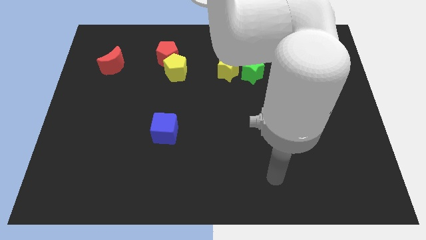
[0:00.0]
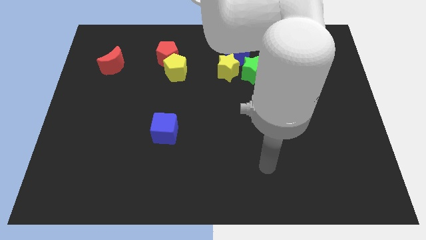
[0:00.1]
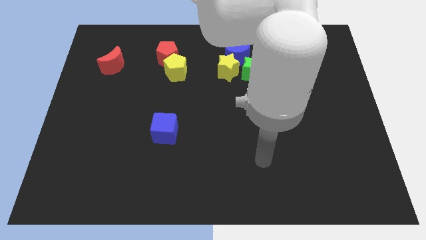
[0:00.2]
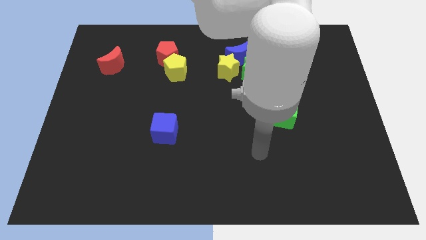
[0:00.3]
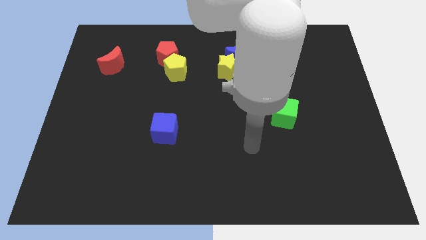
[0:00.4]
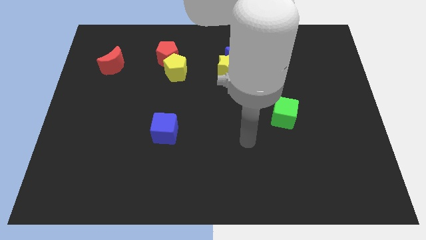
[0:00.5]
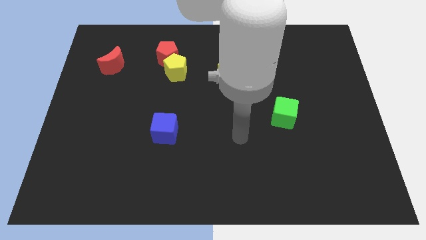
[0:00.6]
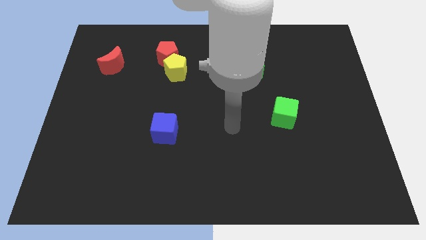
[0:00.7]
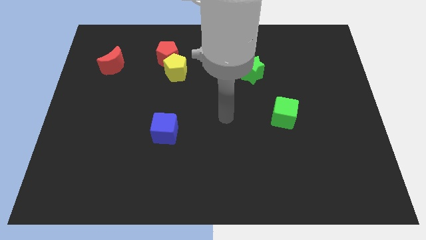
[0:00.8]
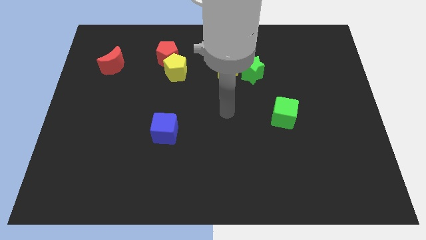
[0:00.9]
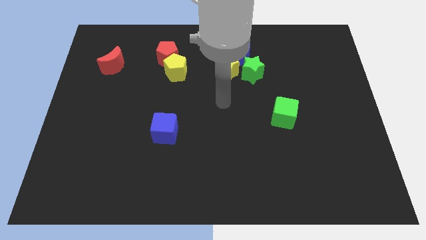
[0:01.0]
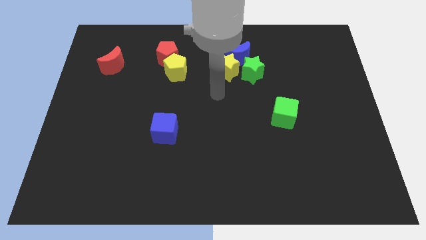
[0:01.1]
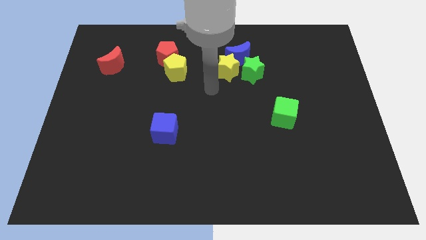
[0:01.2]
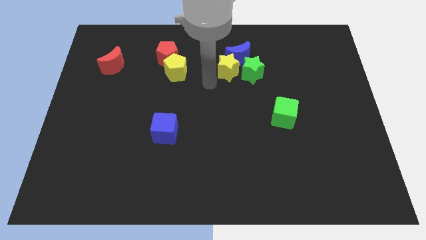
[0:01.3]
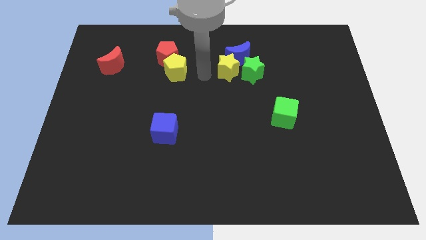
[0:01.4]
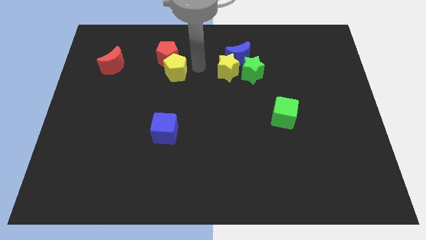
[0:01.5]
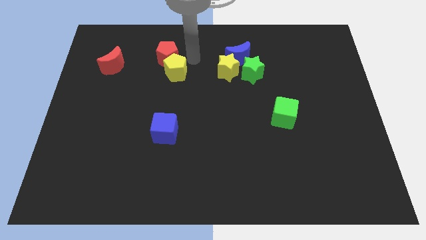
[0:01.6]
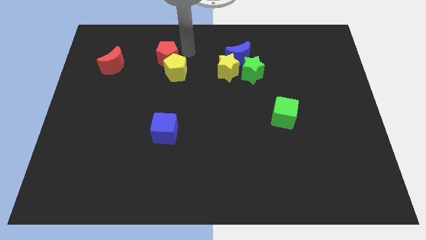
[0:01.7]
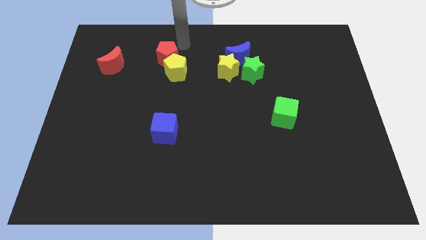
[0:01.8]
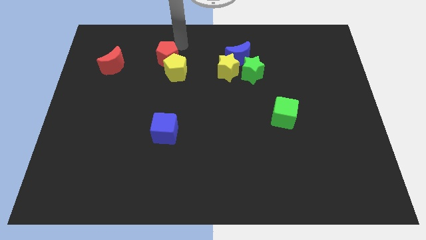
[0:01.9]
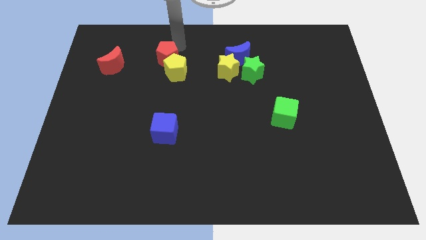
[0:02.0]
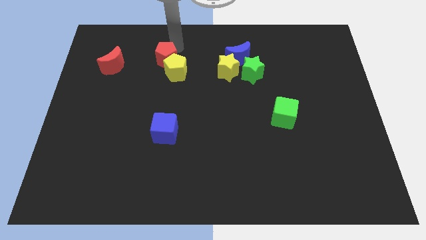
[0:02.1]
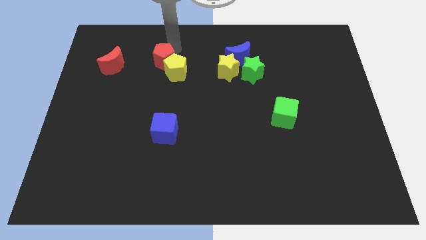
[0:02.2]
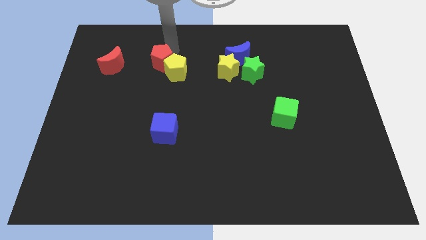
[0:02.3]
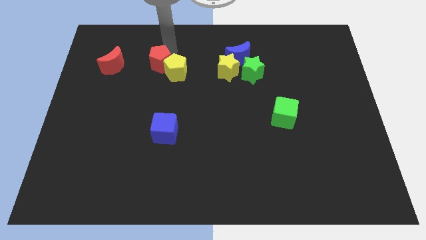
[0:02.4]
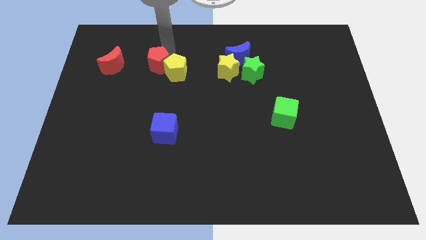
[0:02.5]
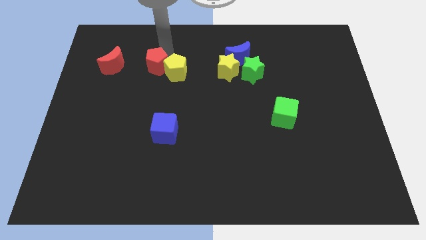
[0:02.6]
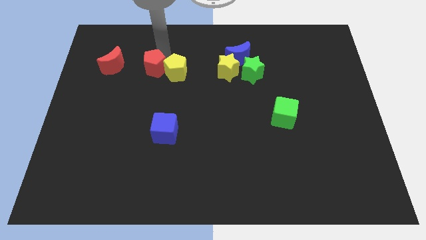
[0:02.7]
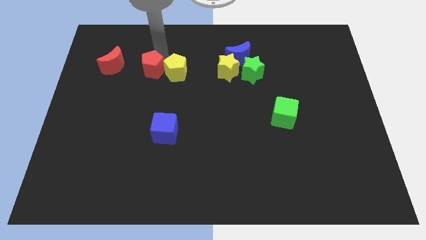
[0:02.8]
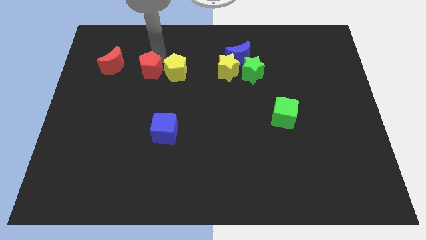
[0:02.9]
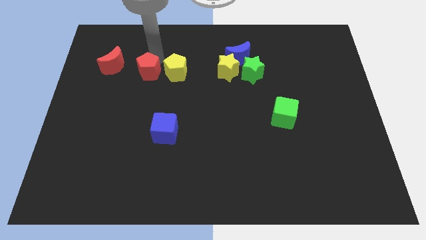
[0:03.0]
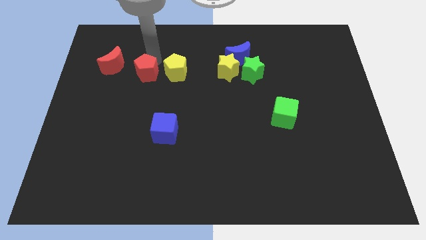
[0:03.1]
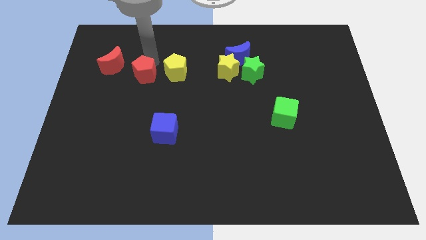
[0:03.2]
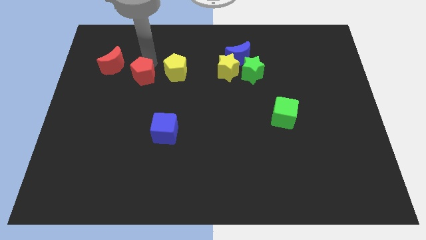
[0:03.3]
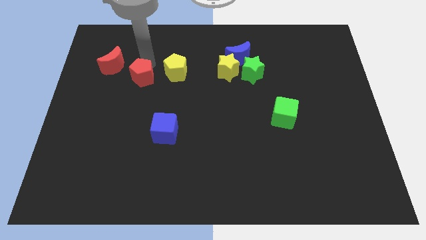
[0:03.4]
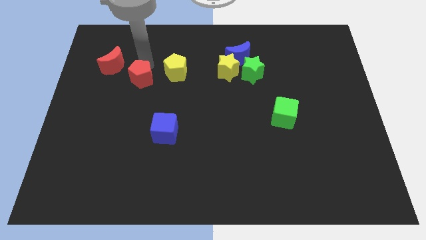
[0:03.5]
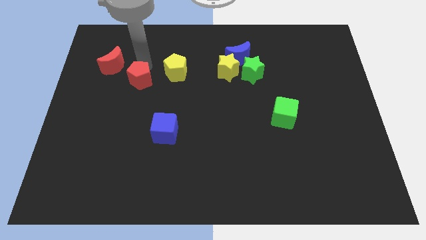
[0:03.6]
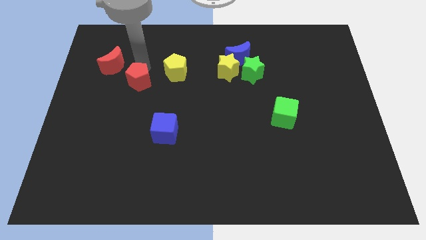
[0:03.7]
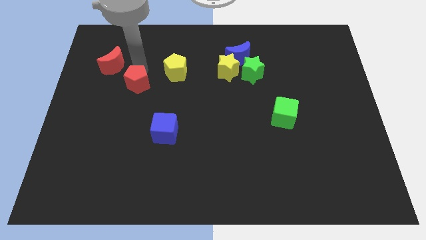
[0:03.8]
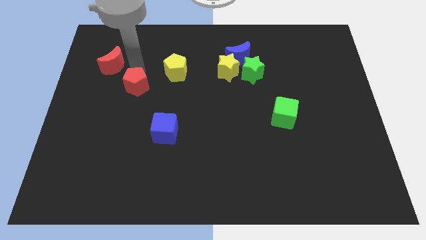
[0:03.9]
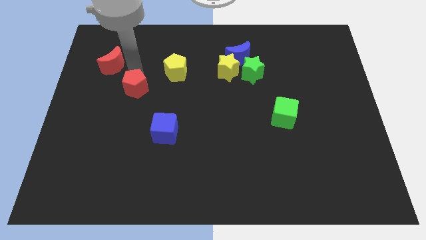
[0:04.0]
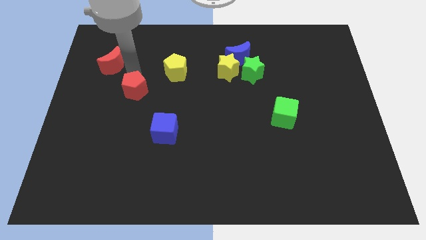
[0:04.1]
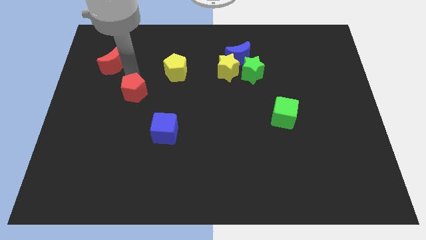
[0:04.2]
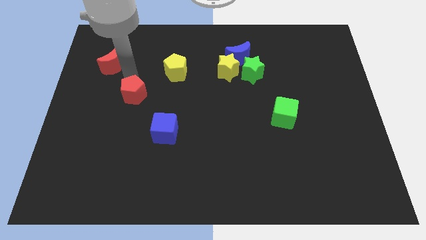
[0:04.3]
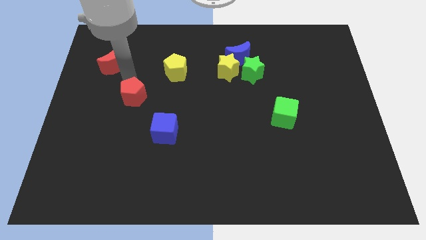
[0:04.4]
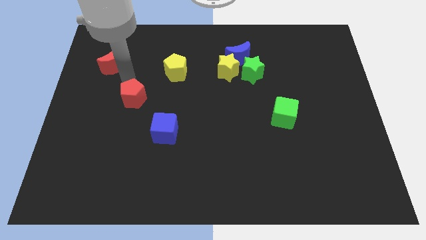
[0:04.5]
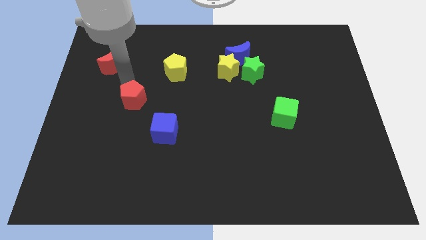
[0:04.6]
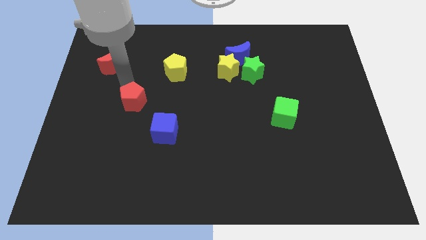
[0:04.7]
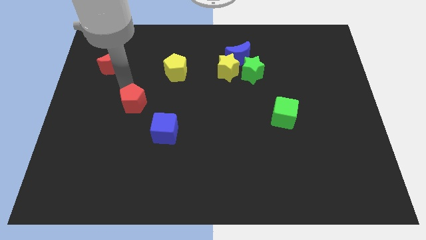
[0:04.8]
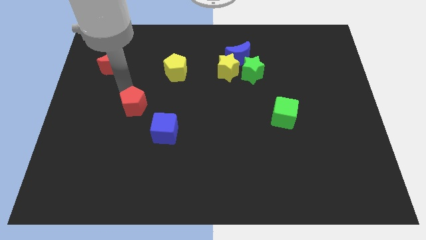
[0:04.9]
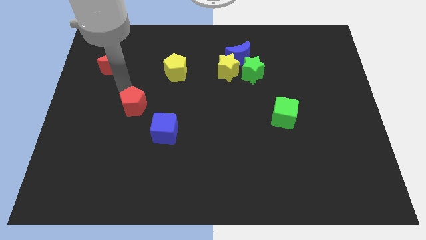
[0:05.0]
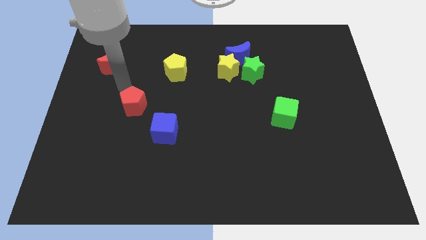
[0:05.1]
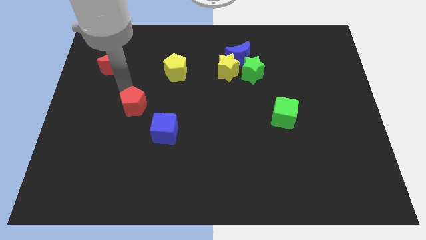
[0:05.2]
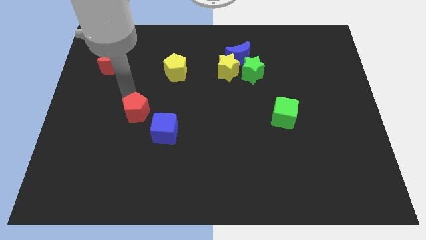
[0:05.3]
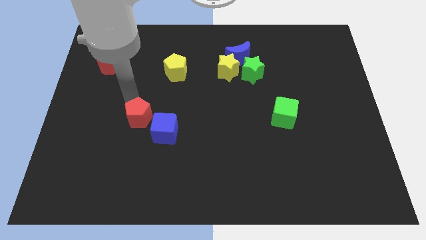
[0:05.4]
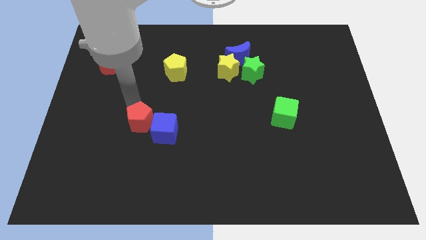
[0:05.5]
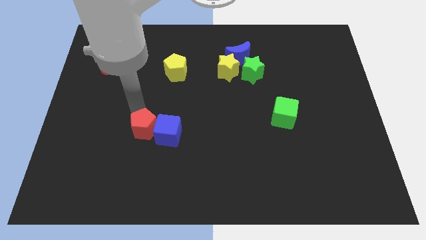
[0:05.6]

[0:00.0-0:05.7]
slide the red pentagon downwards

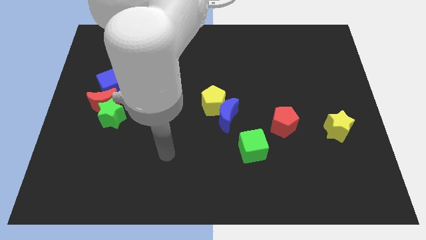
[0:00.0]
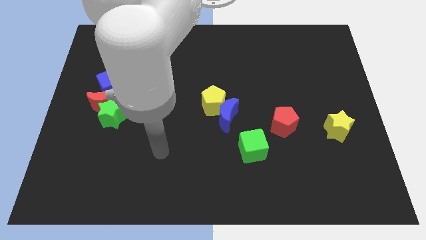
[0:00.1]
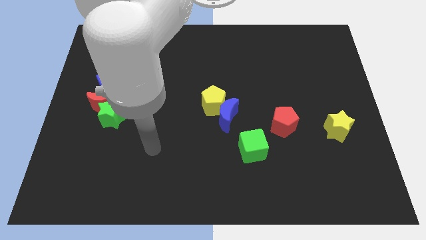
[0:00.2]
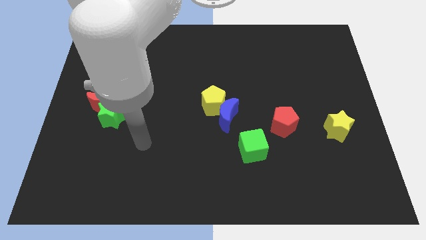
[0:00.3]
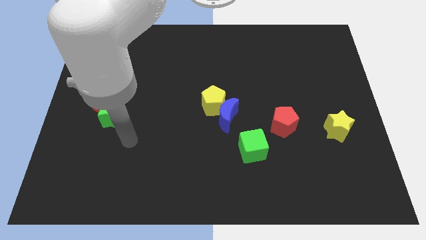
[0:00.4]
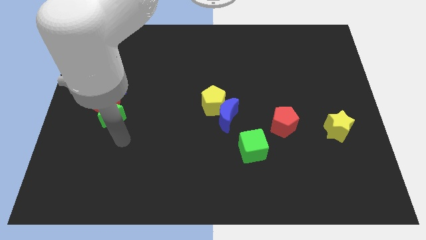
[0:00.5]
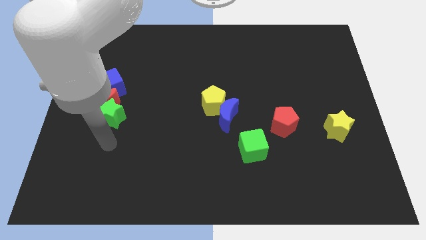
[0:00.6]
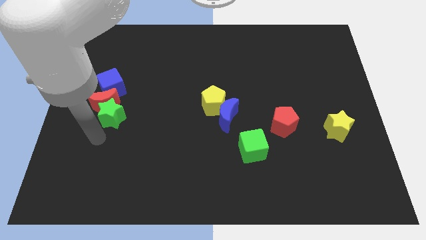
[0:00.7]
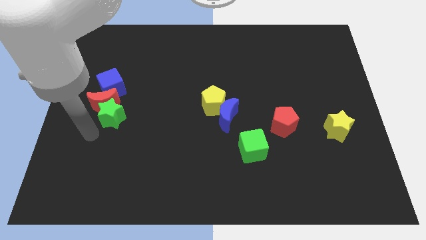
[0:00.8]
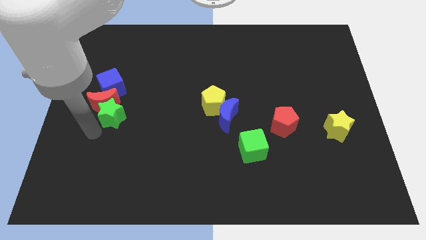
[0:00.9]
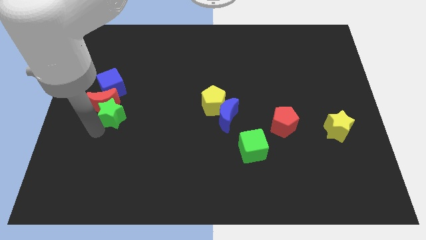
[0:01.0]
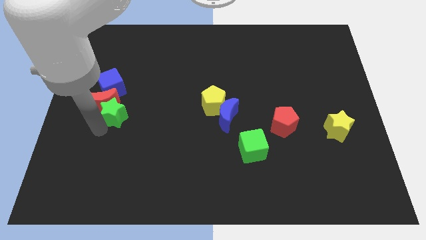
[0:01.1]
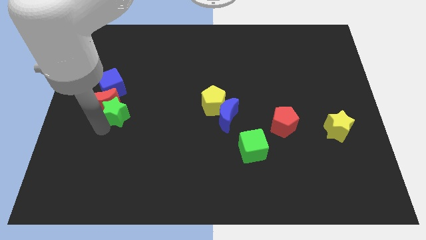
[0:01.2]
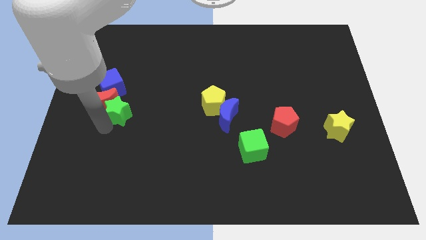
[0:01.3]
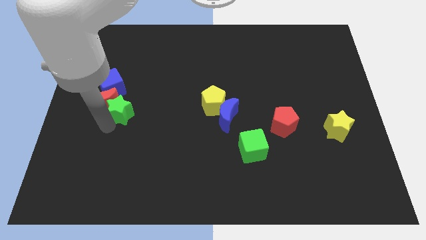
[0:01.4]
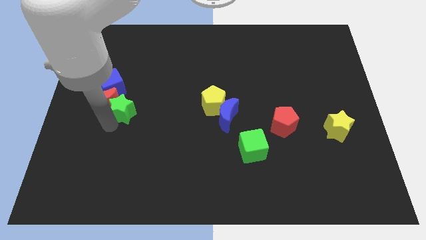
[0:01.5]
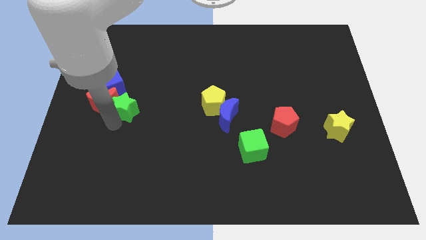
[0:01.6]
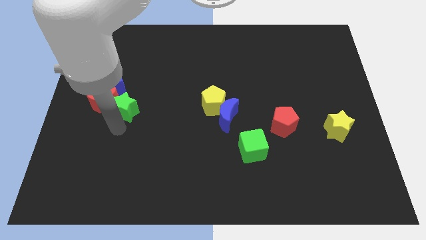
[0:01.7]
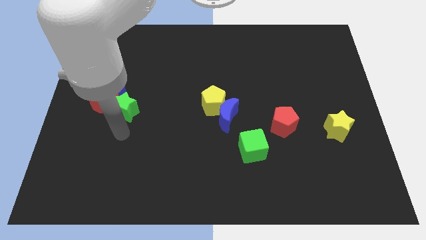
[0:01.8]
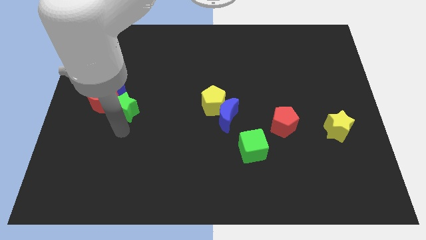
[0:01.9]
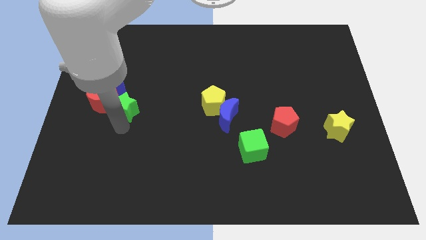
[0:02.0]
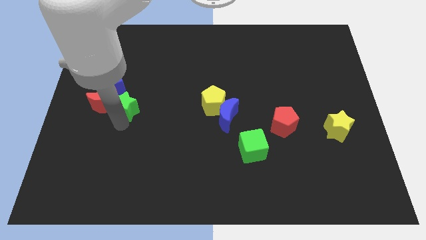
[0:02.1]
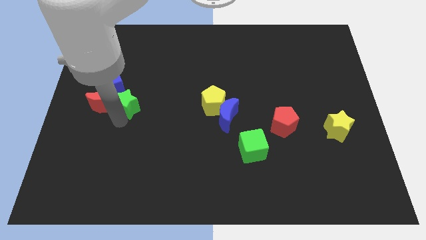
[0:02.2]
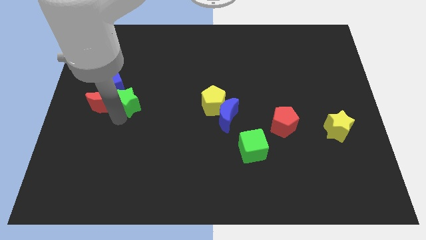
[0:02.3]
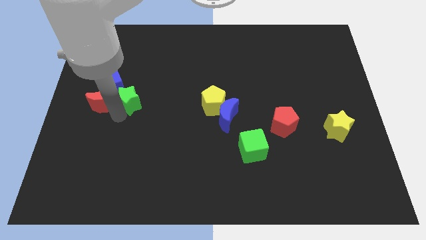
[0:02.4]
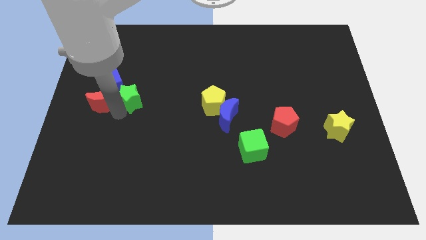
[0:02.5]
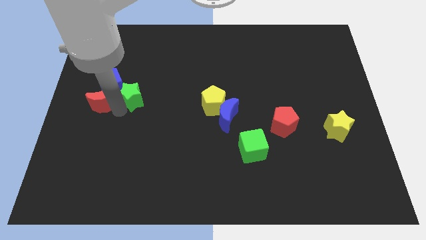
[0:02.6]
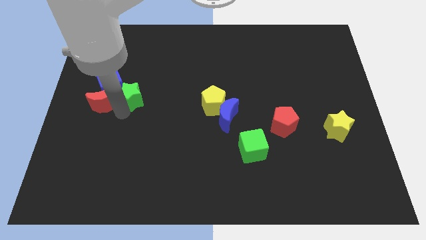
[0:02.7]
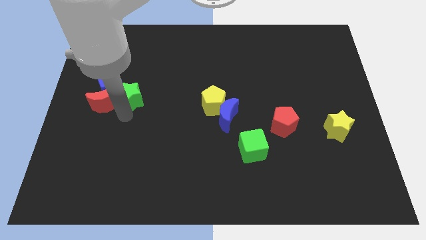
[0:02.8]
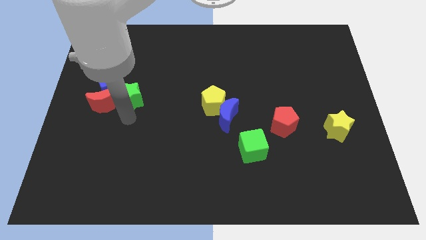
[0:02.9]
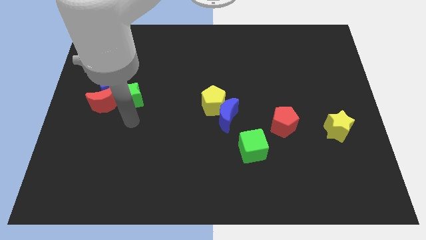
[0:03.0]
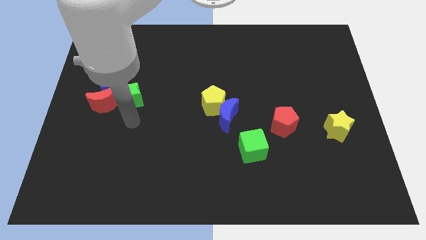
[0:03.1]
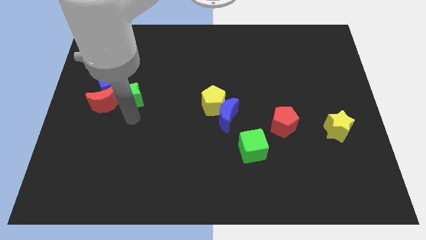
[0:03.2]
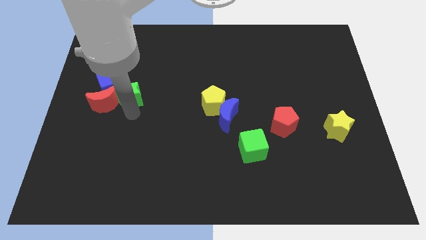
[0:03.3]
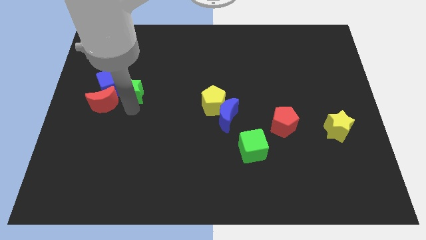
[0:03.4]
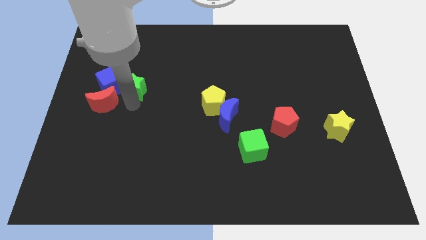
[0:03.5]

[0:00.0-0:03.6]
push the green star upwards a little
